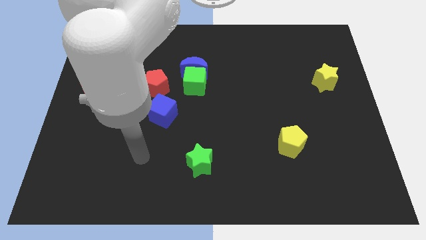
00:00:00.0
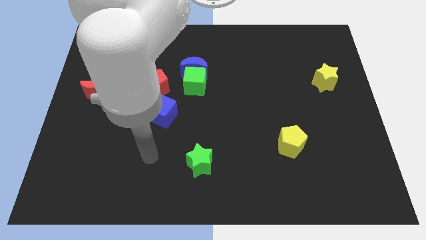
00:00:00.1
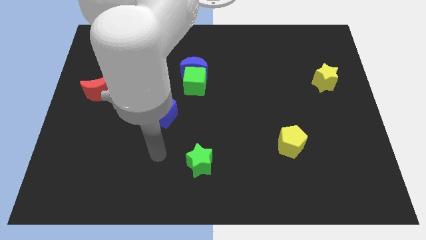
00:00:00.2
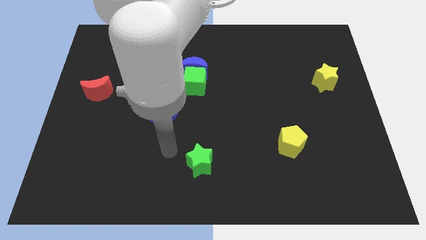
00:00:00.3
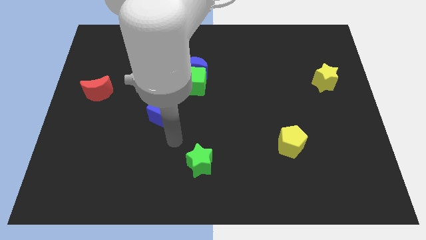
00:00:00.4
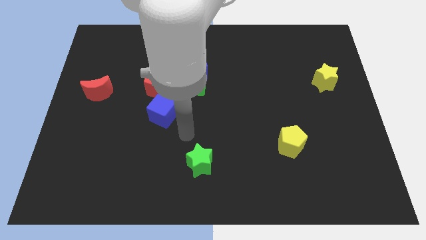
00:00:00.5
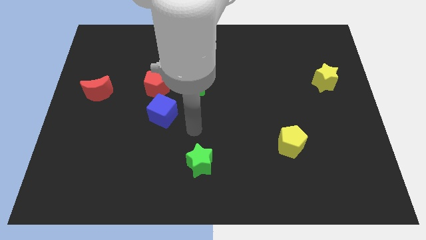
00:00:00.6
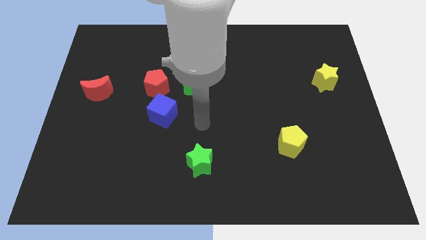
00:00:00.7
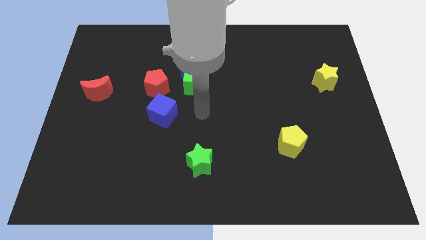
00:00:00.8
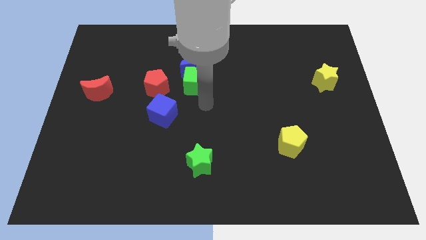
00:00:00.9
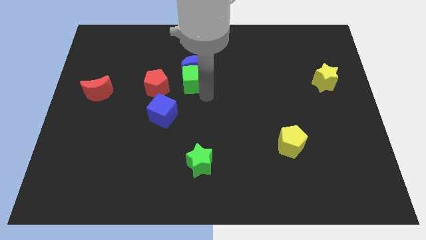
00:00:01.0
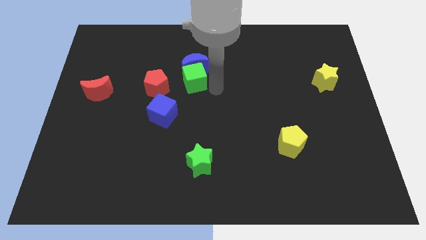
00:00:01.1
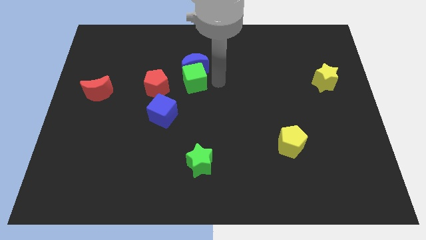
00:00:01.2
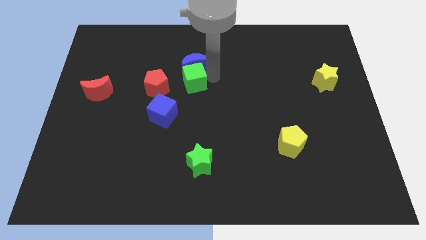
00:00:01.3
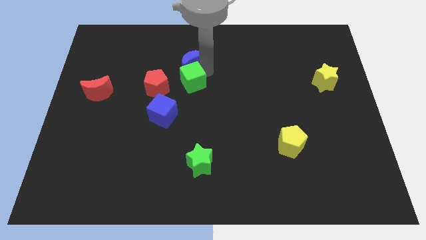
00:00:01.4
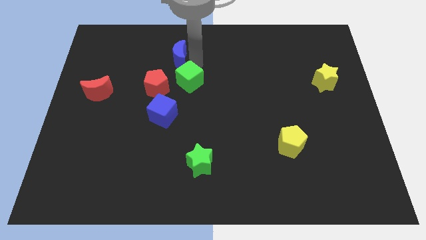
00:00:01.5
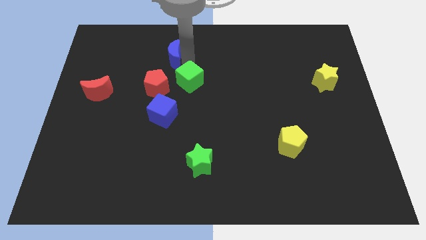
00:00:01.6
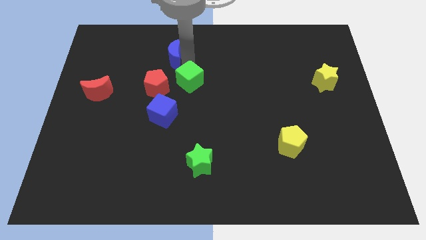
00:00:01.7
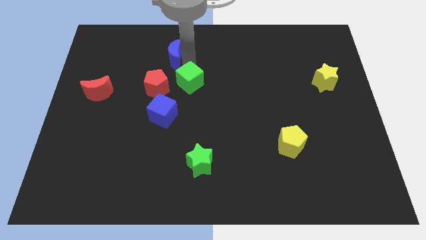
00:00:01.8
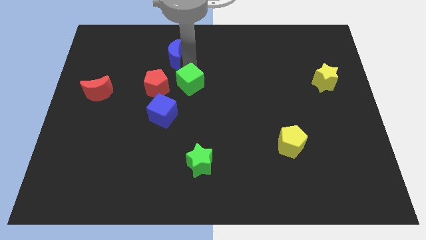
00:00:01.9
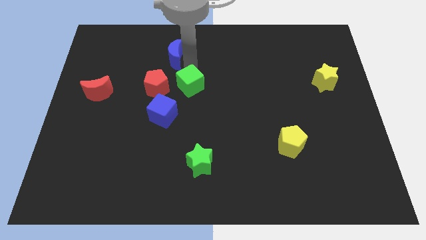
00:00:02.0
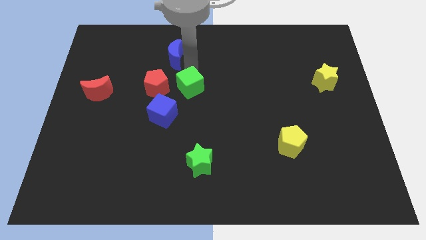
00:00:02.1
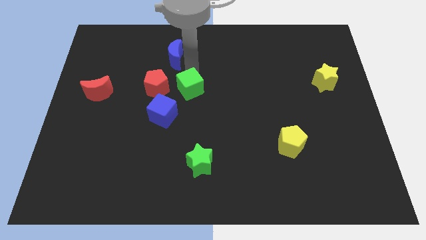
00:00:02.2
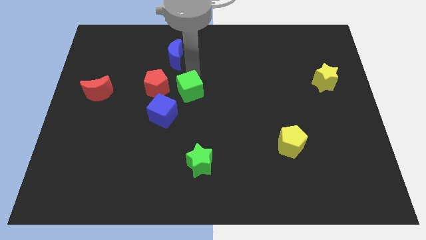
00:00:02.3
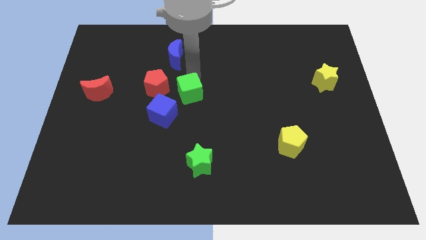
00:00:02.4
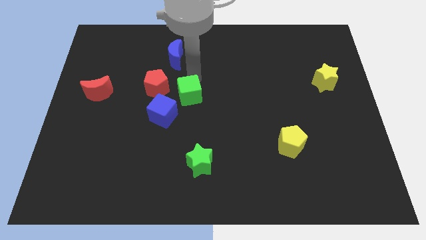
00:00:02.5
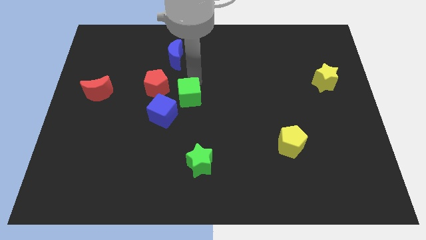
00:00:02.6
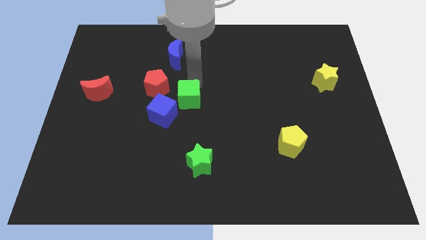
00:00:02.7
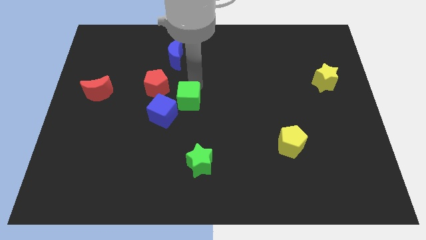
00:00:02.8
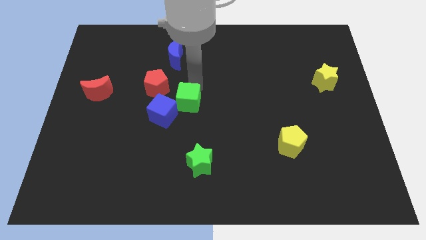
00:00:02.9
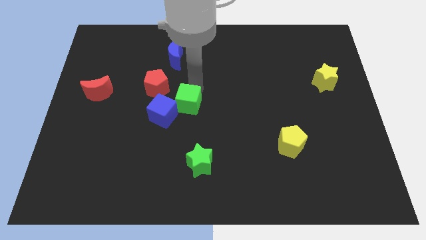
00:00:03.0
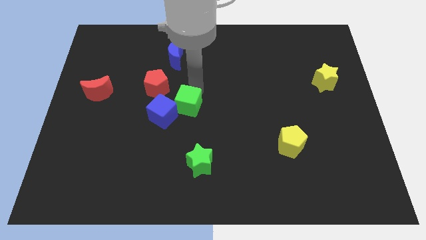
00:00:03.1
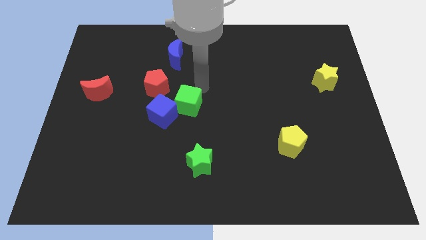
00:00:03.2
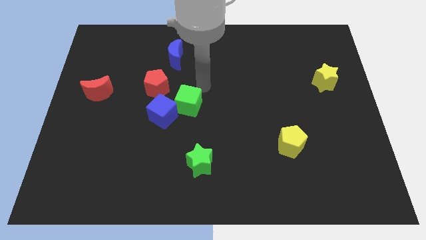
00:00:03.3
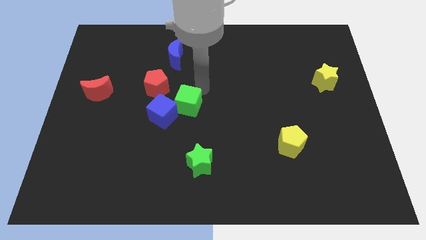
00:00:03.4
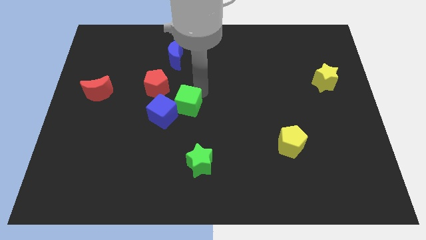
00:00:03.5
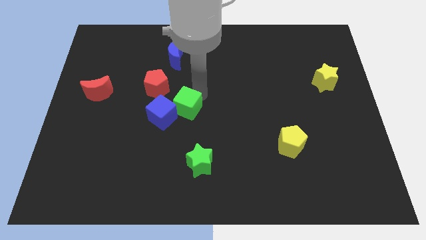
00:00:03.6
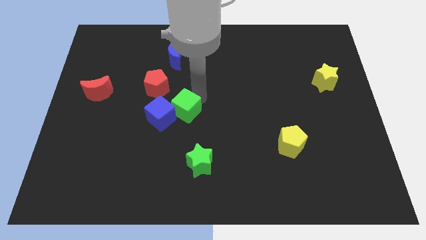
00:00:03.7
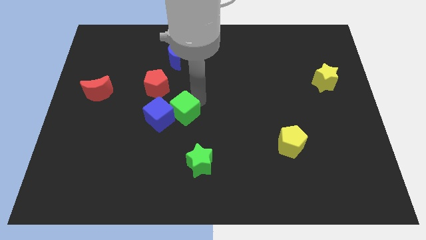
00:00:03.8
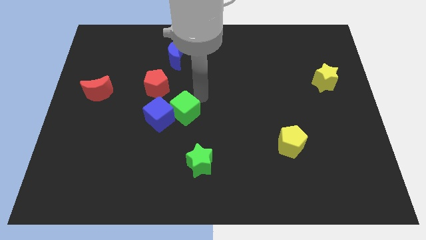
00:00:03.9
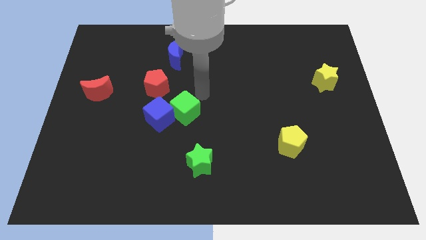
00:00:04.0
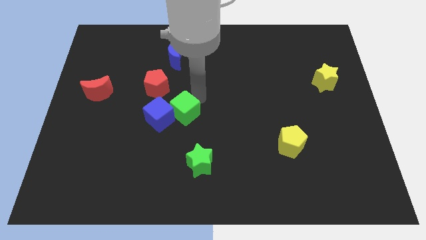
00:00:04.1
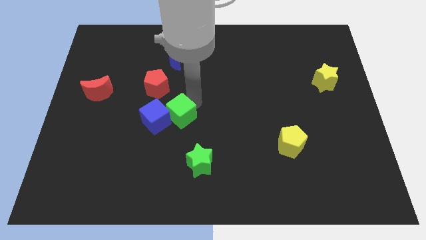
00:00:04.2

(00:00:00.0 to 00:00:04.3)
slightly push the green cube downwards and to the left diagonally

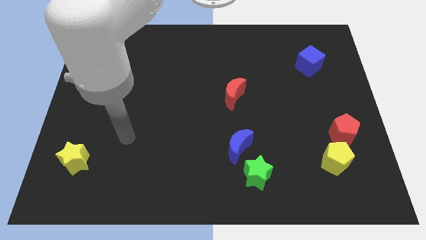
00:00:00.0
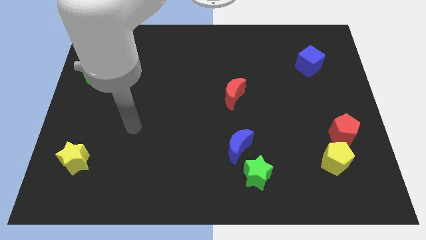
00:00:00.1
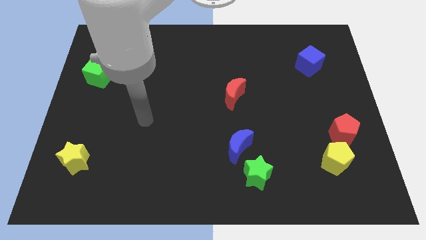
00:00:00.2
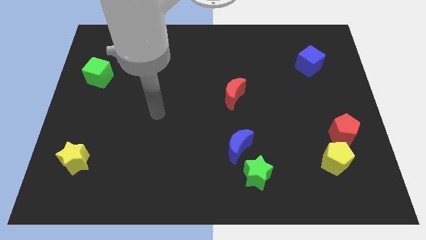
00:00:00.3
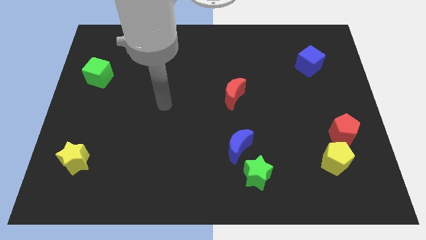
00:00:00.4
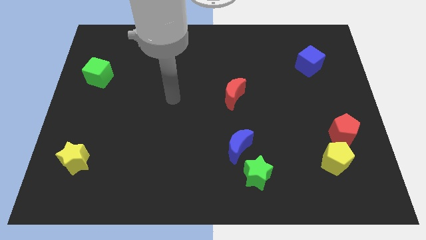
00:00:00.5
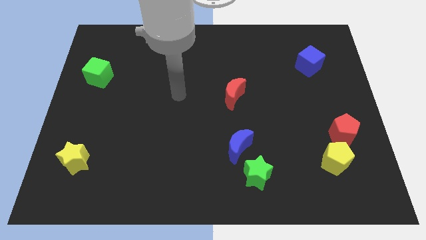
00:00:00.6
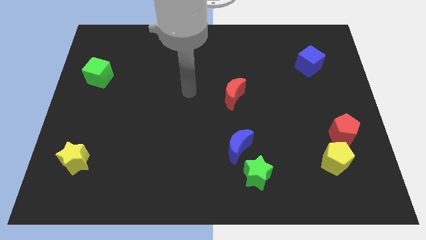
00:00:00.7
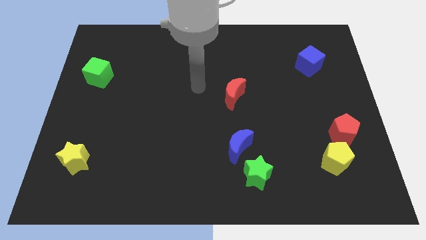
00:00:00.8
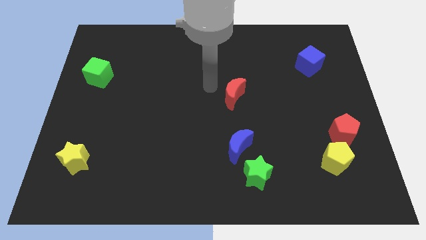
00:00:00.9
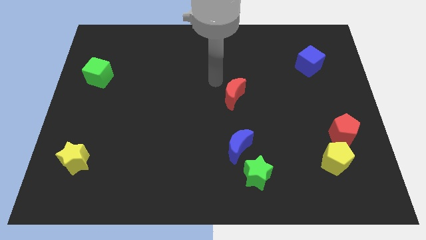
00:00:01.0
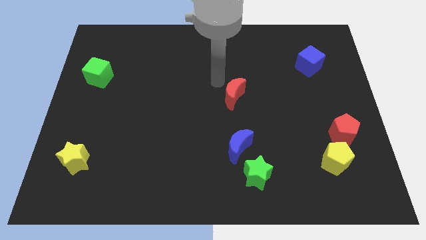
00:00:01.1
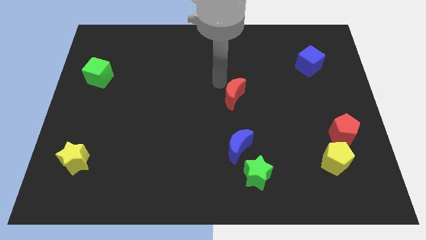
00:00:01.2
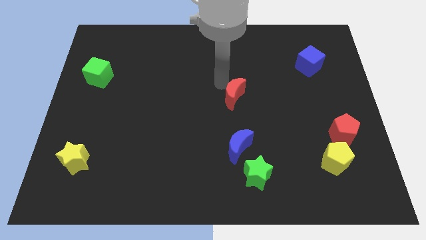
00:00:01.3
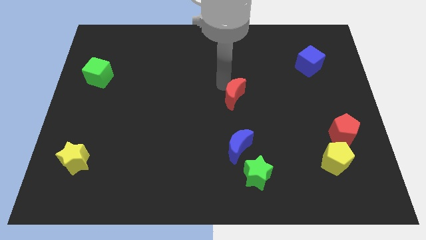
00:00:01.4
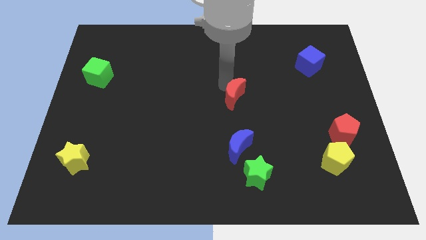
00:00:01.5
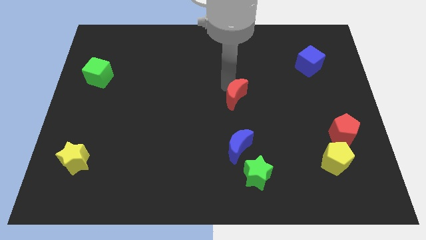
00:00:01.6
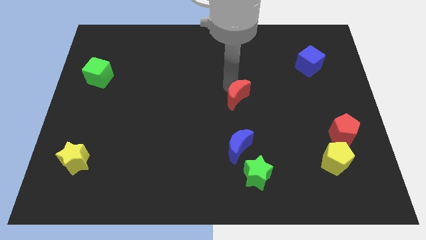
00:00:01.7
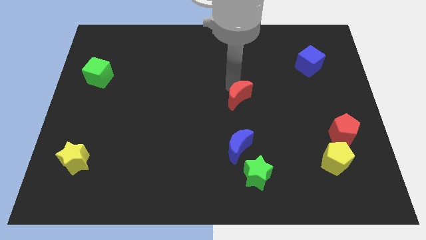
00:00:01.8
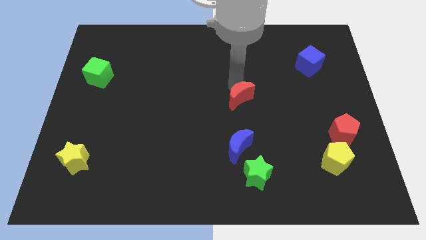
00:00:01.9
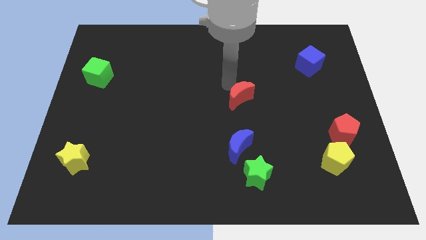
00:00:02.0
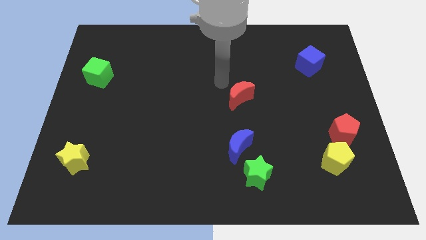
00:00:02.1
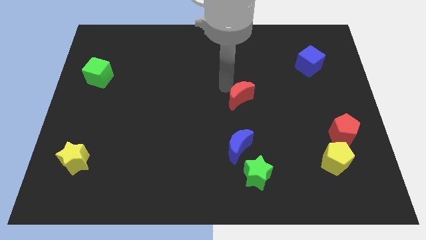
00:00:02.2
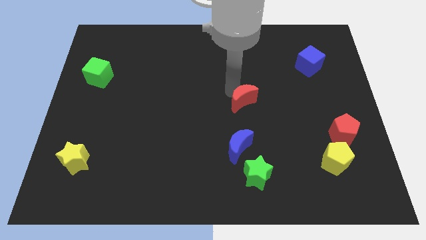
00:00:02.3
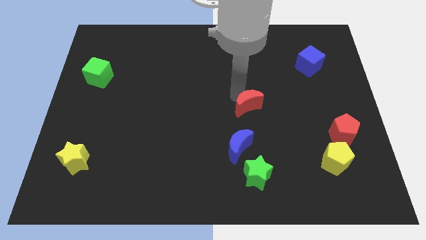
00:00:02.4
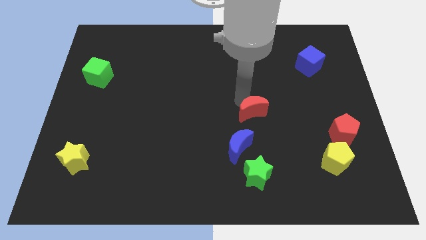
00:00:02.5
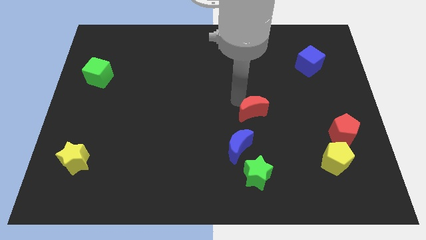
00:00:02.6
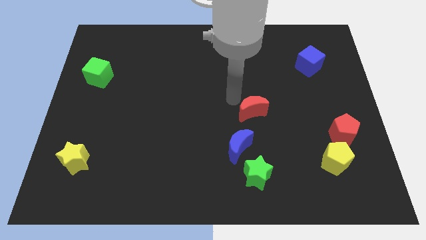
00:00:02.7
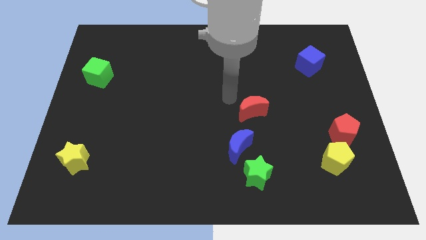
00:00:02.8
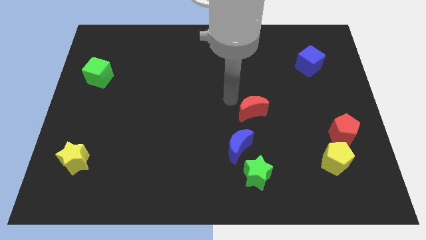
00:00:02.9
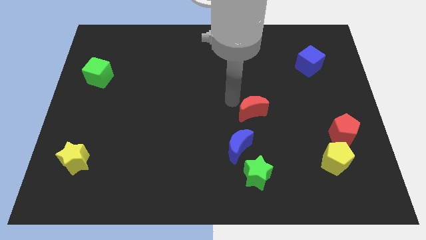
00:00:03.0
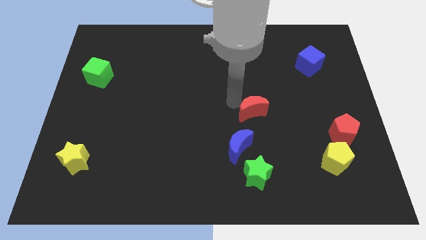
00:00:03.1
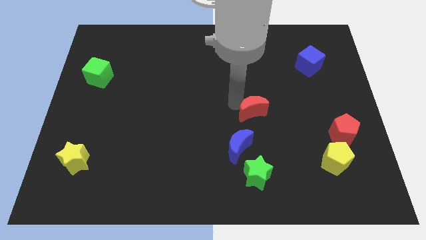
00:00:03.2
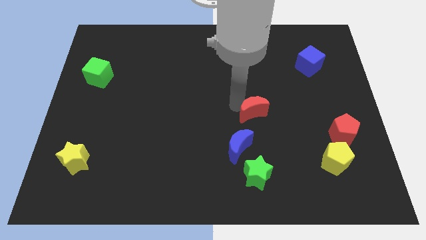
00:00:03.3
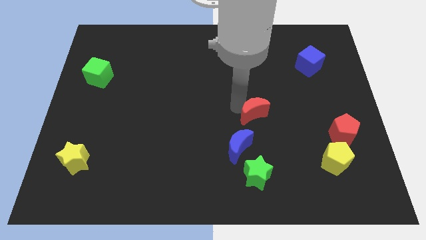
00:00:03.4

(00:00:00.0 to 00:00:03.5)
slide the red moon a bit downwards and then to the right

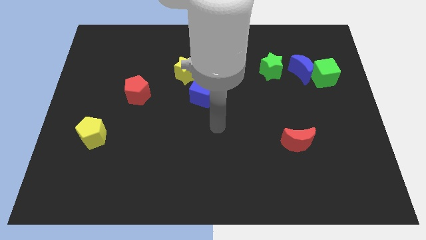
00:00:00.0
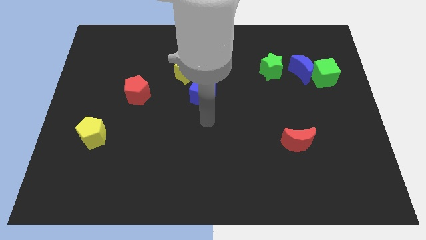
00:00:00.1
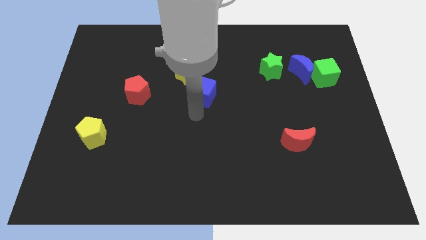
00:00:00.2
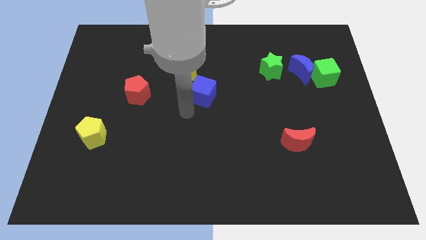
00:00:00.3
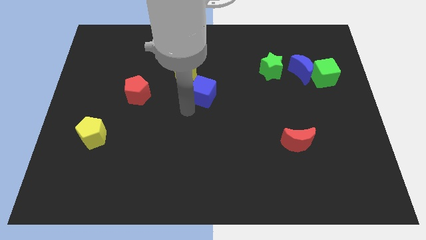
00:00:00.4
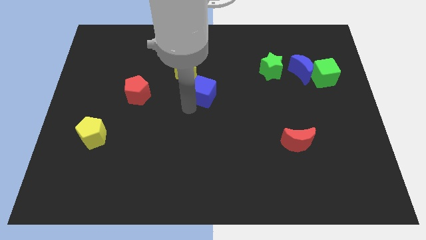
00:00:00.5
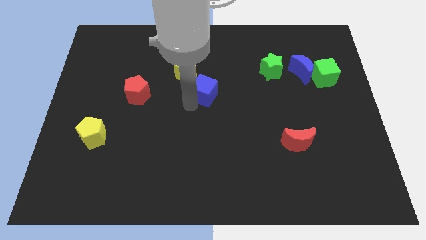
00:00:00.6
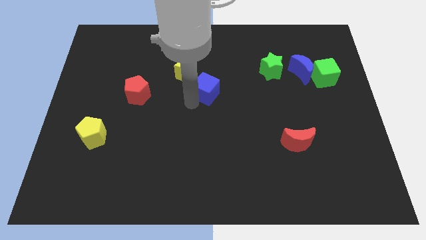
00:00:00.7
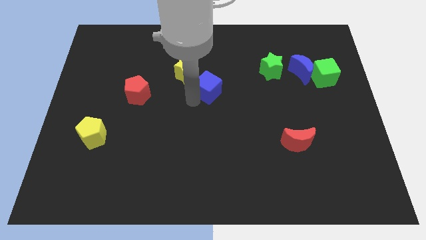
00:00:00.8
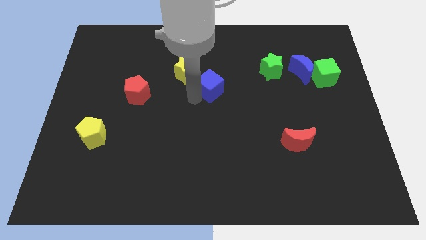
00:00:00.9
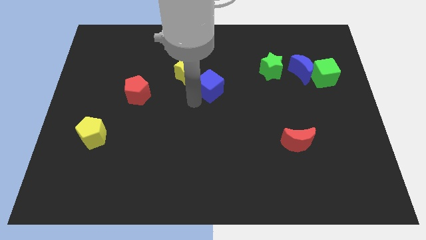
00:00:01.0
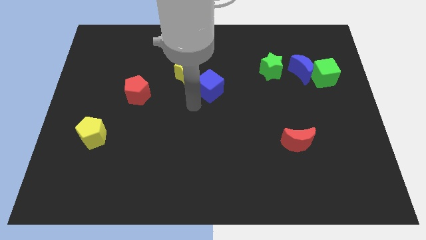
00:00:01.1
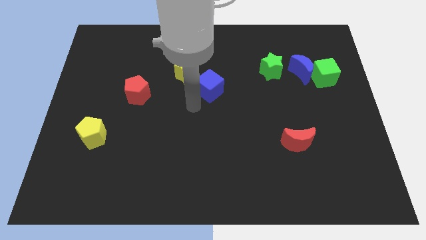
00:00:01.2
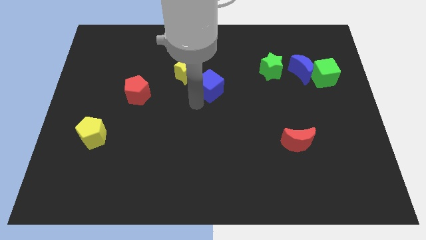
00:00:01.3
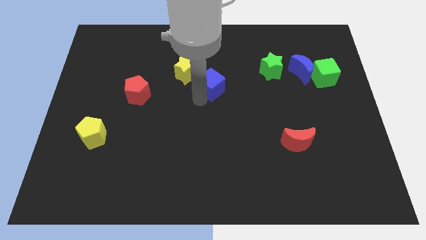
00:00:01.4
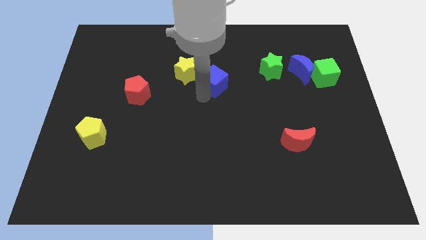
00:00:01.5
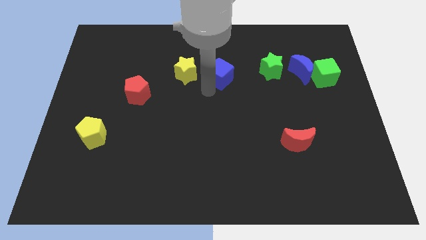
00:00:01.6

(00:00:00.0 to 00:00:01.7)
slightly move the blue cube diagonally up and to the right
